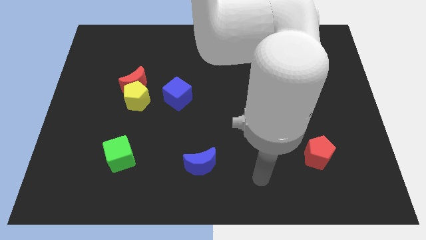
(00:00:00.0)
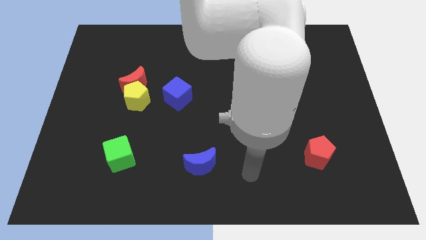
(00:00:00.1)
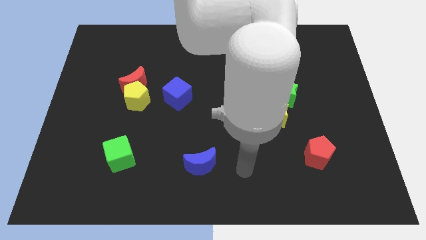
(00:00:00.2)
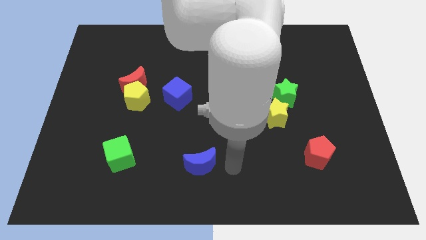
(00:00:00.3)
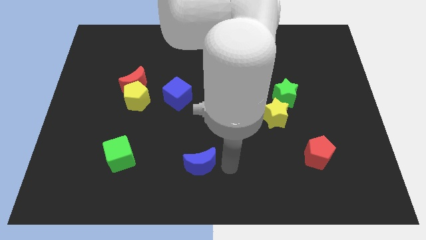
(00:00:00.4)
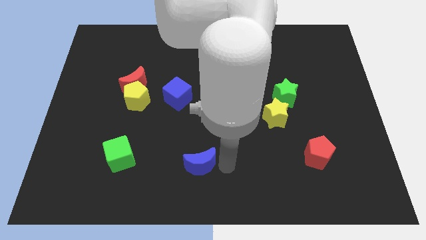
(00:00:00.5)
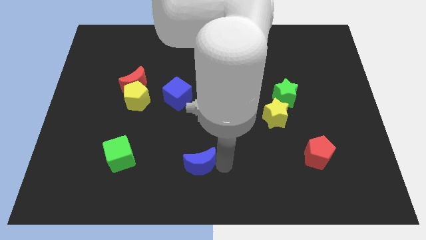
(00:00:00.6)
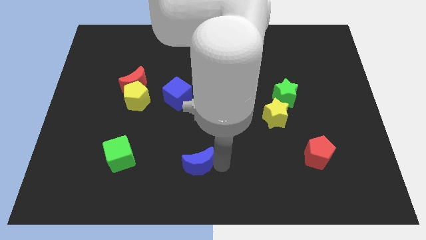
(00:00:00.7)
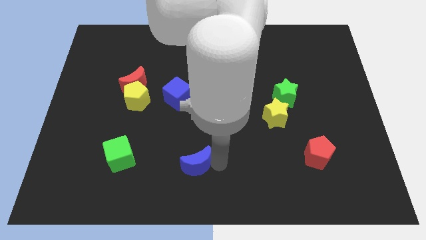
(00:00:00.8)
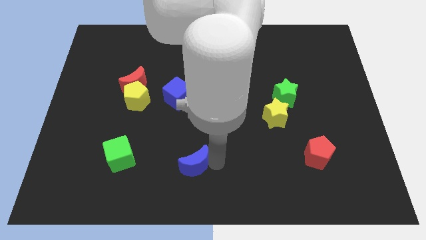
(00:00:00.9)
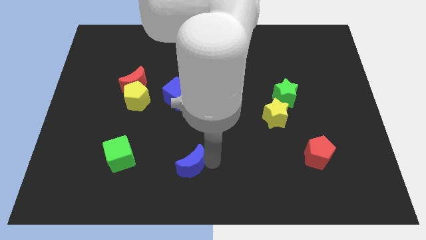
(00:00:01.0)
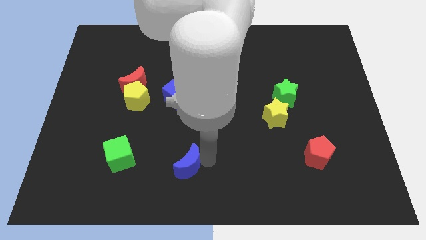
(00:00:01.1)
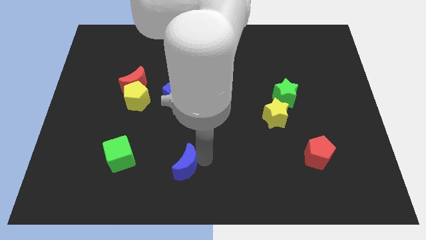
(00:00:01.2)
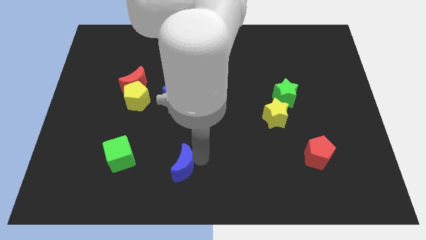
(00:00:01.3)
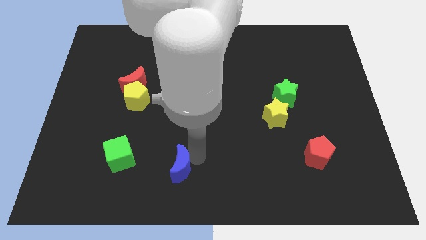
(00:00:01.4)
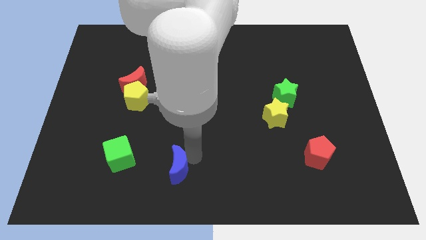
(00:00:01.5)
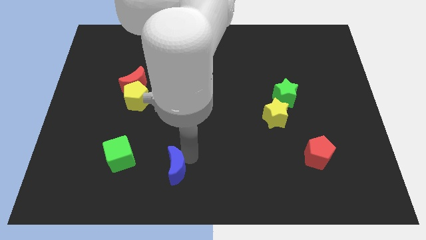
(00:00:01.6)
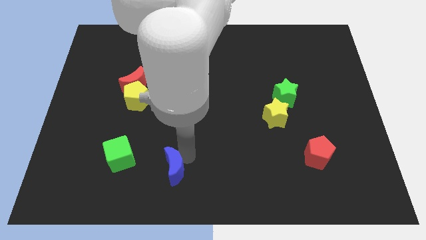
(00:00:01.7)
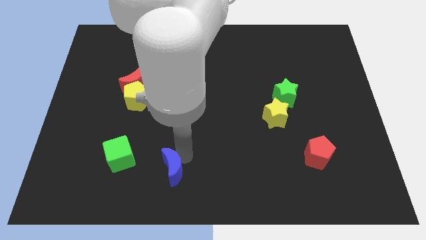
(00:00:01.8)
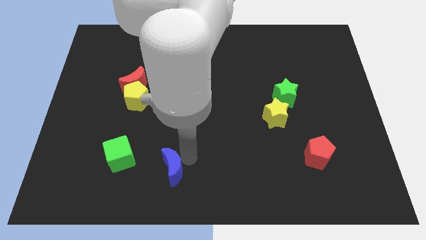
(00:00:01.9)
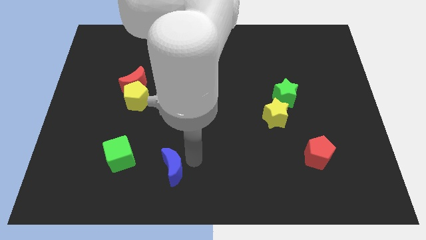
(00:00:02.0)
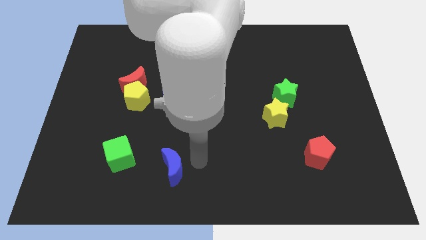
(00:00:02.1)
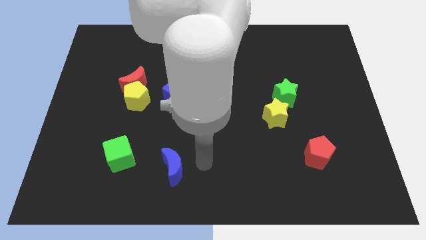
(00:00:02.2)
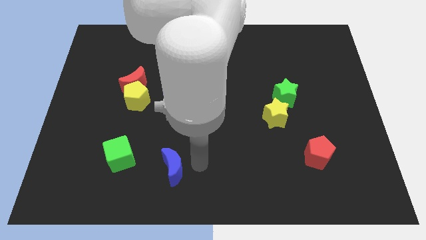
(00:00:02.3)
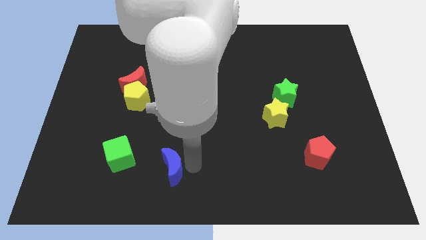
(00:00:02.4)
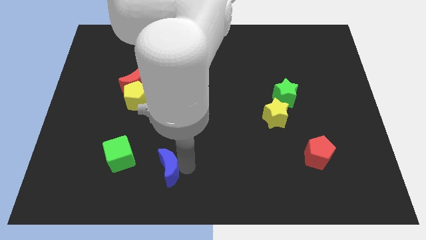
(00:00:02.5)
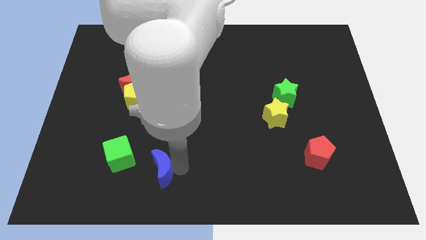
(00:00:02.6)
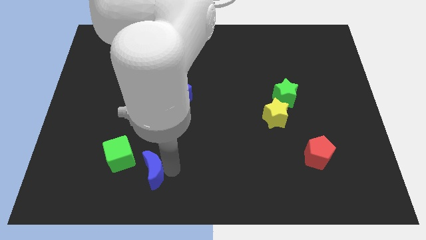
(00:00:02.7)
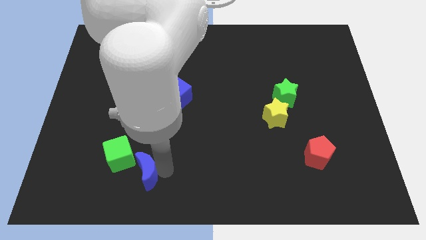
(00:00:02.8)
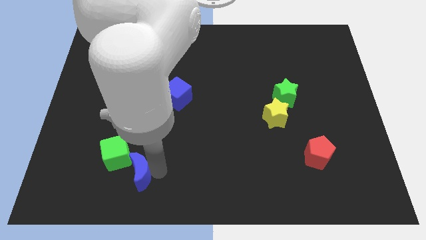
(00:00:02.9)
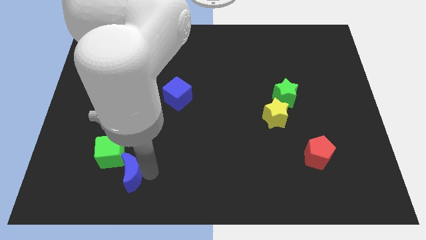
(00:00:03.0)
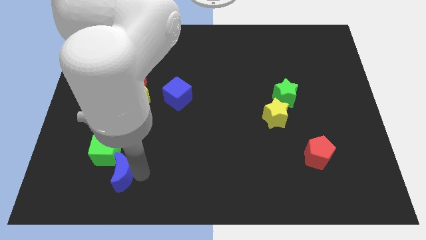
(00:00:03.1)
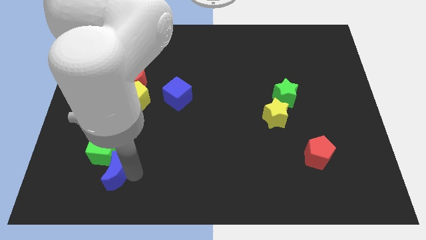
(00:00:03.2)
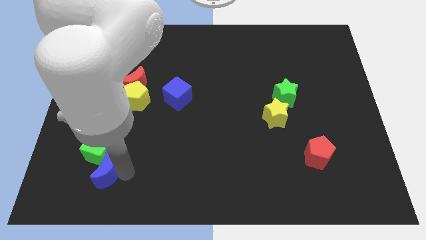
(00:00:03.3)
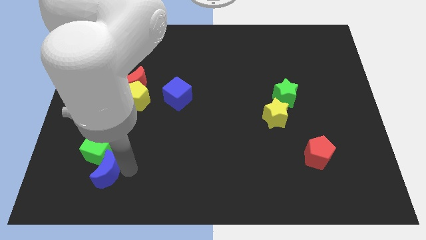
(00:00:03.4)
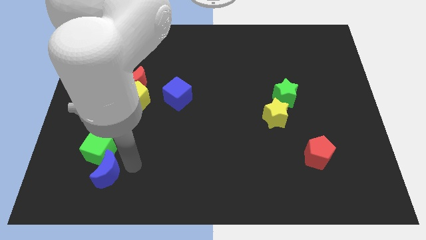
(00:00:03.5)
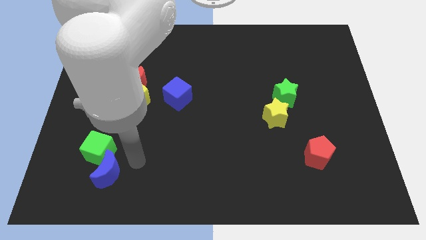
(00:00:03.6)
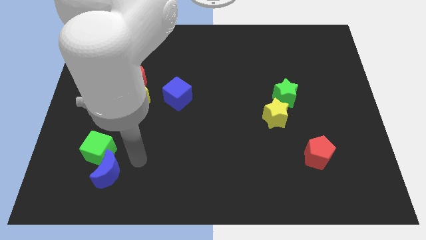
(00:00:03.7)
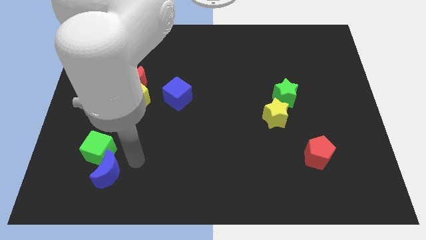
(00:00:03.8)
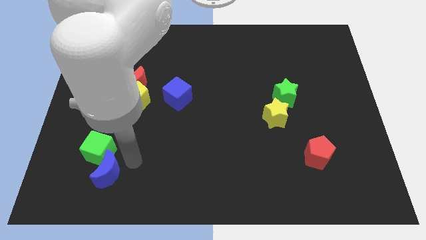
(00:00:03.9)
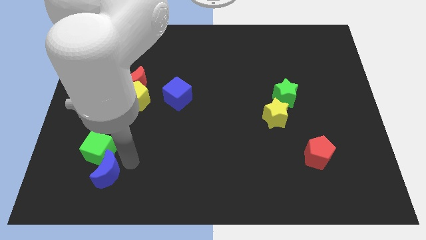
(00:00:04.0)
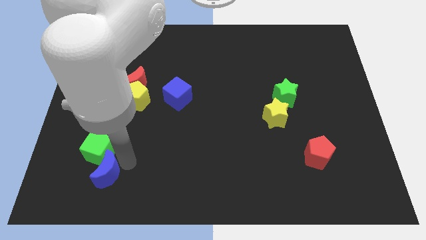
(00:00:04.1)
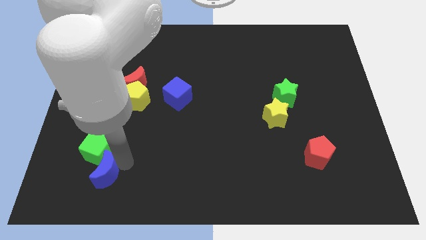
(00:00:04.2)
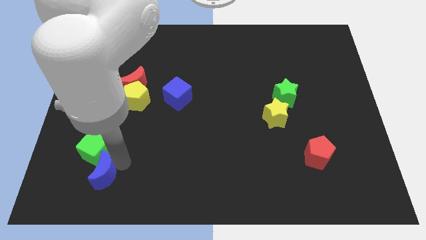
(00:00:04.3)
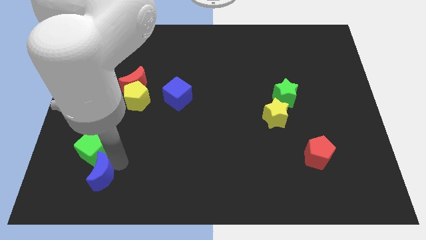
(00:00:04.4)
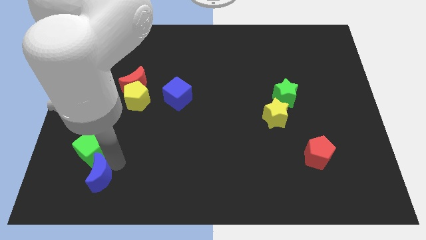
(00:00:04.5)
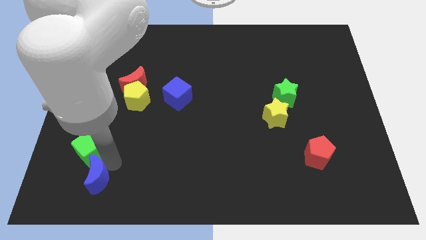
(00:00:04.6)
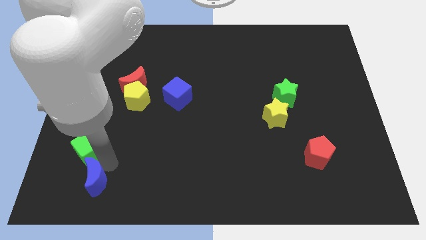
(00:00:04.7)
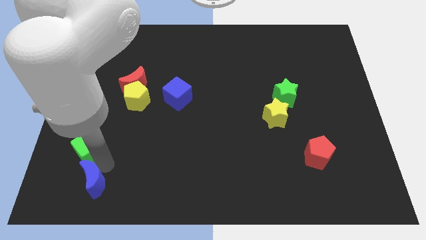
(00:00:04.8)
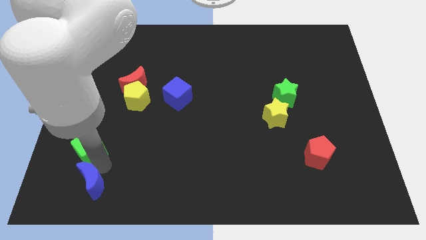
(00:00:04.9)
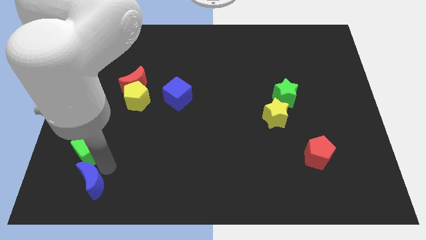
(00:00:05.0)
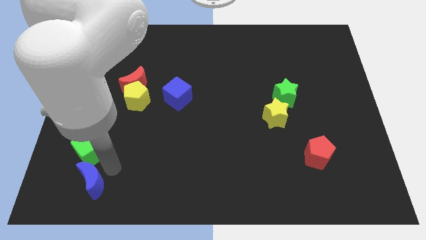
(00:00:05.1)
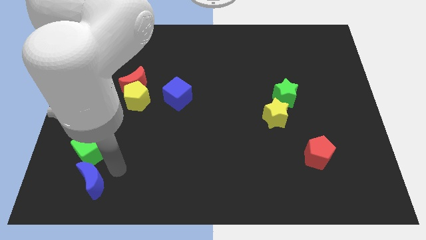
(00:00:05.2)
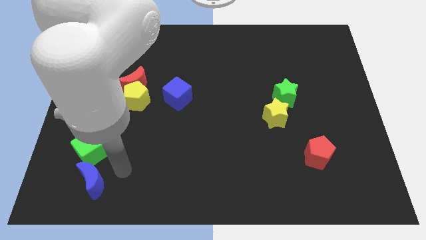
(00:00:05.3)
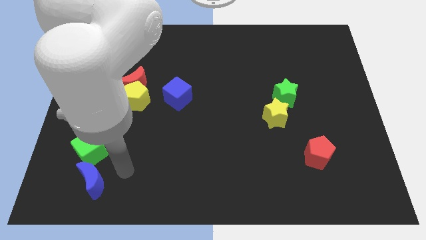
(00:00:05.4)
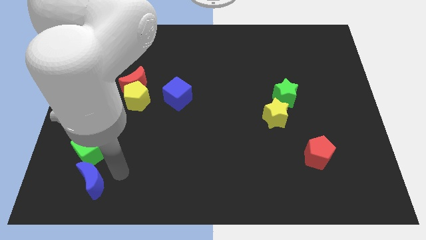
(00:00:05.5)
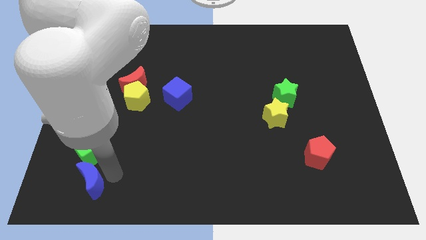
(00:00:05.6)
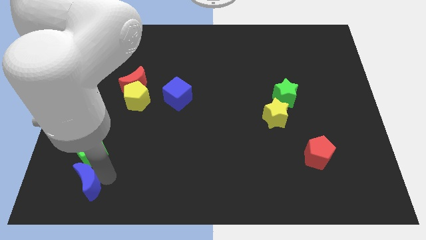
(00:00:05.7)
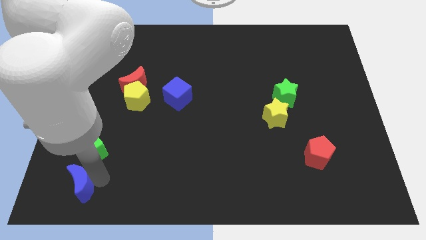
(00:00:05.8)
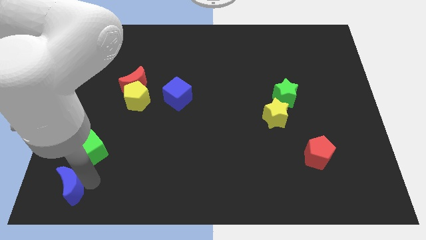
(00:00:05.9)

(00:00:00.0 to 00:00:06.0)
put the blue moon to the bottom left

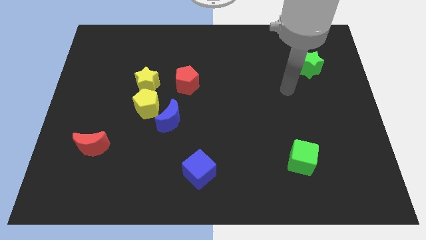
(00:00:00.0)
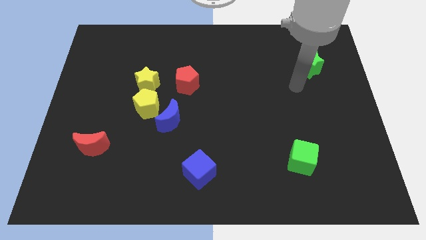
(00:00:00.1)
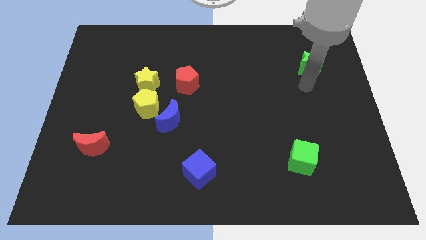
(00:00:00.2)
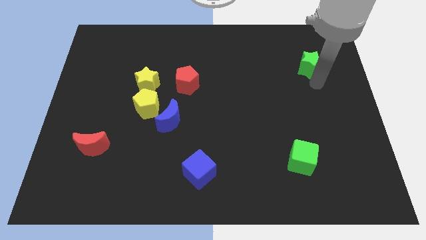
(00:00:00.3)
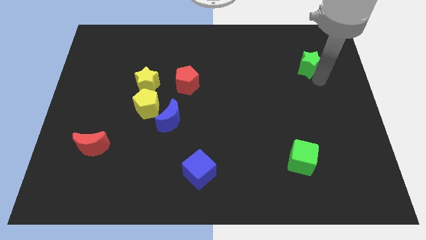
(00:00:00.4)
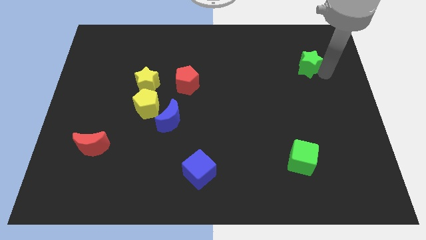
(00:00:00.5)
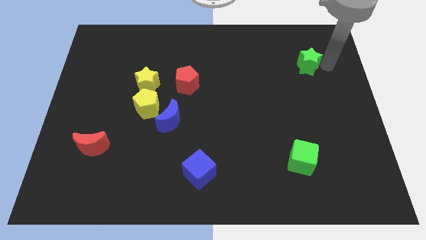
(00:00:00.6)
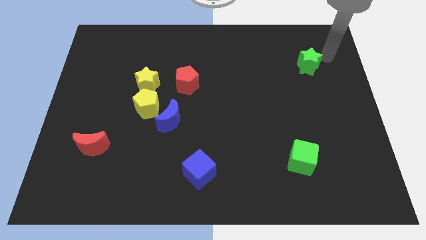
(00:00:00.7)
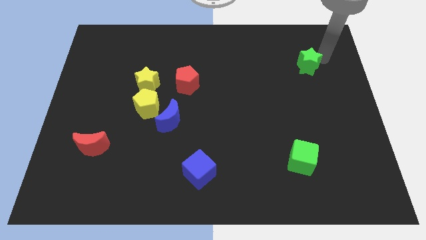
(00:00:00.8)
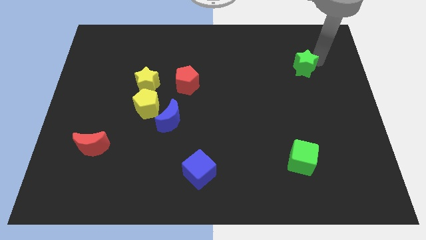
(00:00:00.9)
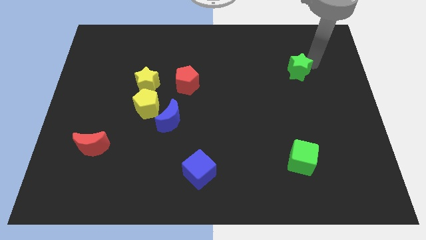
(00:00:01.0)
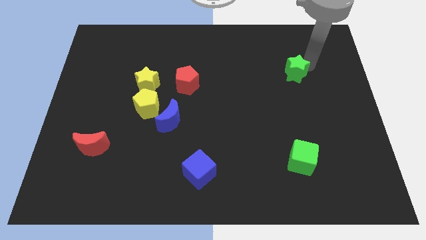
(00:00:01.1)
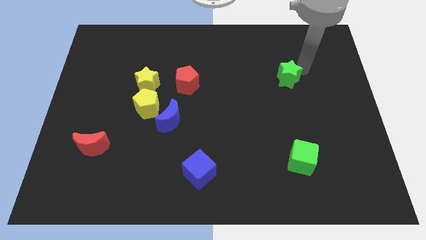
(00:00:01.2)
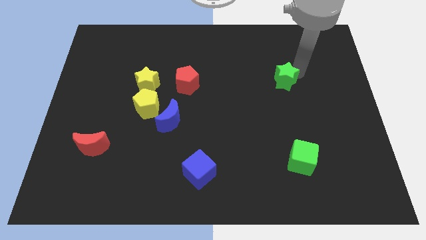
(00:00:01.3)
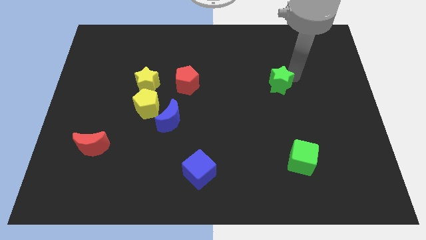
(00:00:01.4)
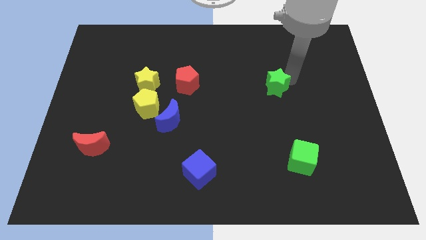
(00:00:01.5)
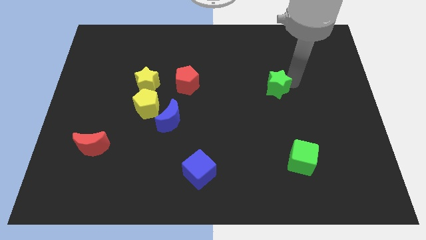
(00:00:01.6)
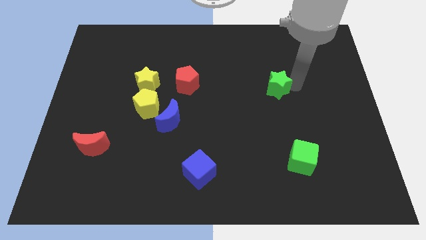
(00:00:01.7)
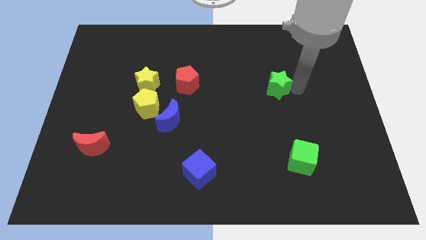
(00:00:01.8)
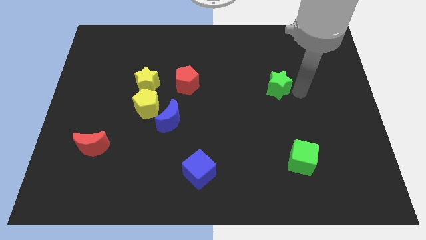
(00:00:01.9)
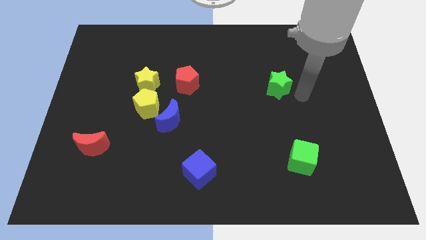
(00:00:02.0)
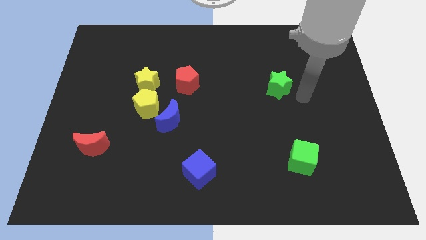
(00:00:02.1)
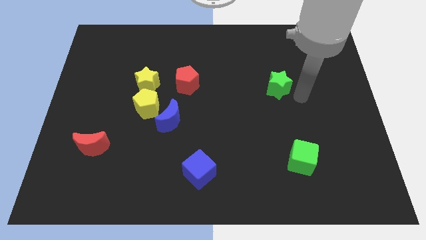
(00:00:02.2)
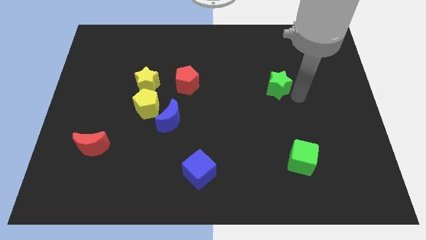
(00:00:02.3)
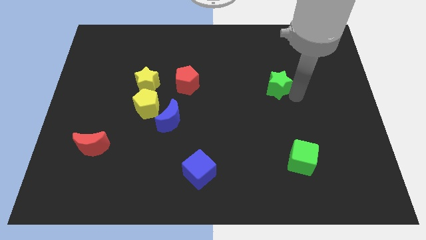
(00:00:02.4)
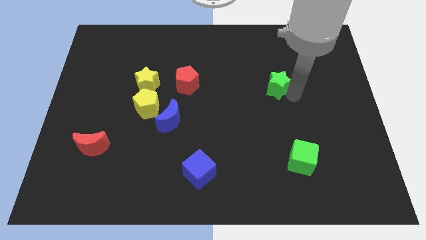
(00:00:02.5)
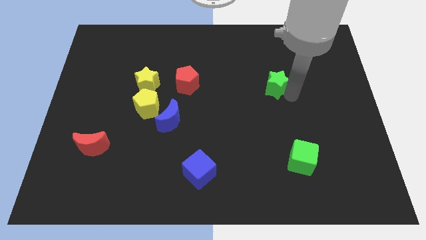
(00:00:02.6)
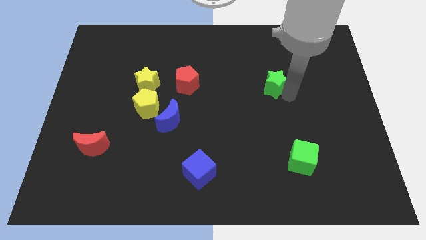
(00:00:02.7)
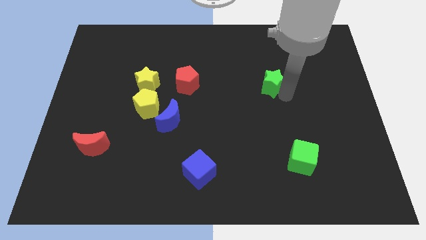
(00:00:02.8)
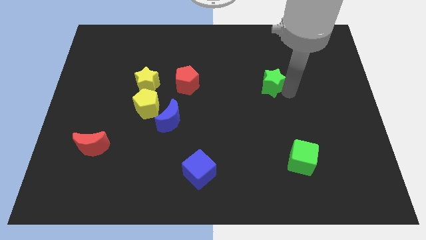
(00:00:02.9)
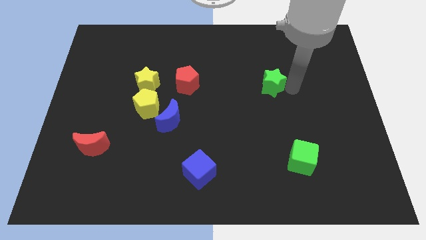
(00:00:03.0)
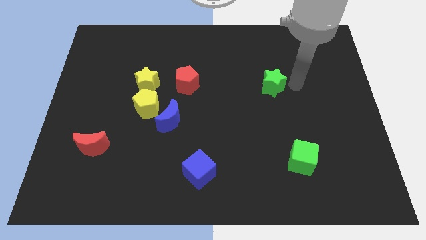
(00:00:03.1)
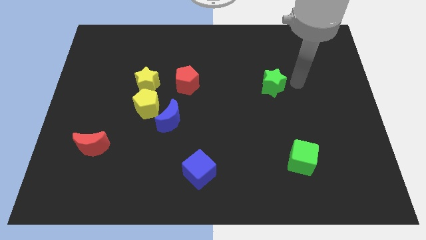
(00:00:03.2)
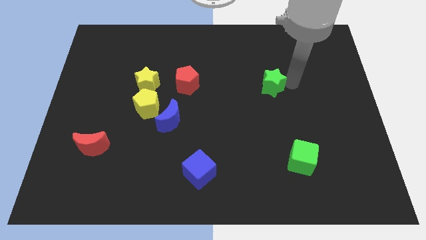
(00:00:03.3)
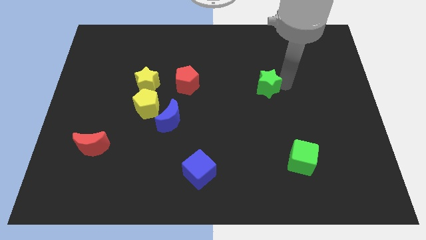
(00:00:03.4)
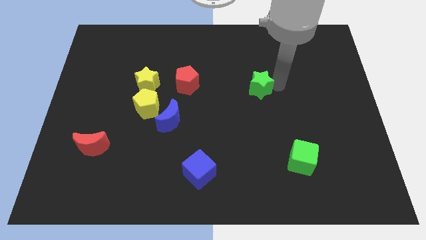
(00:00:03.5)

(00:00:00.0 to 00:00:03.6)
put the green star to the center of the board
